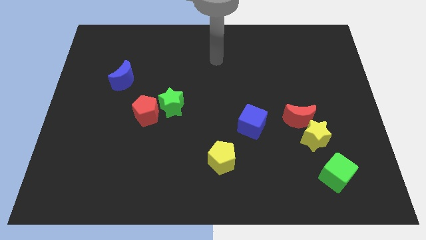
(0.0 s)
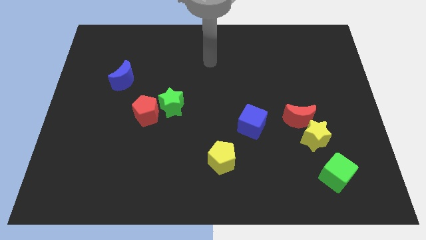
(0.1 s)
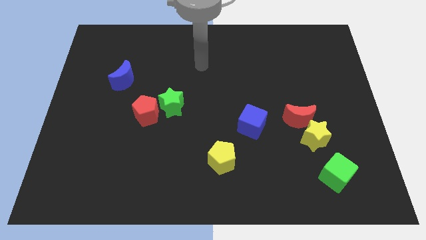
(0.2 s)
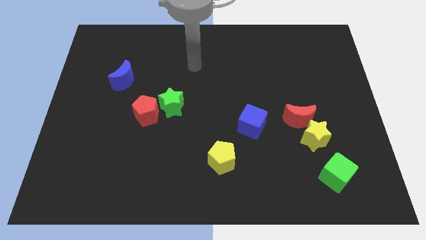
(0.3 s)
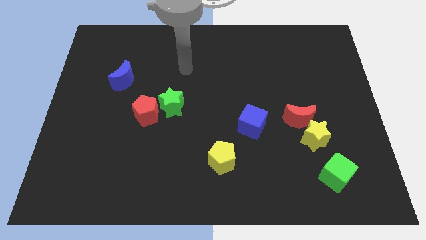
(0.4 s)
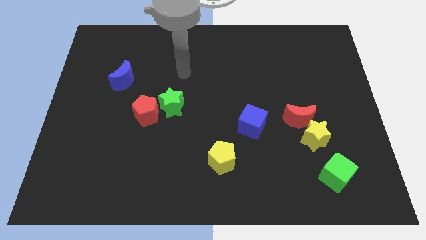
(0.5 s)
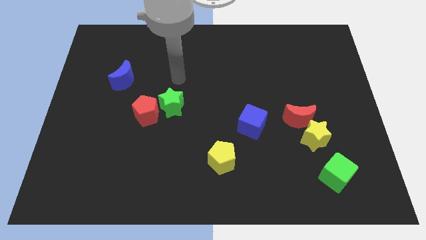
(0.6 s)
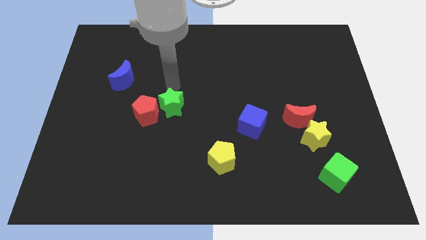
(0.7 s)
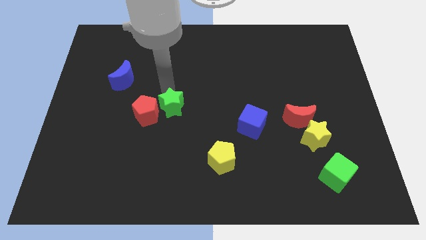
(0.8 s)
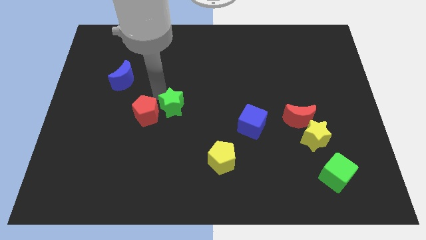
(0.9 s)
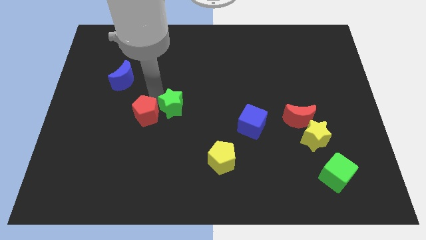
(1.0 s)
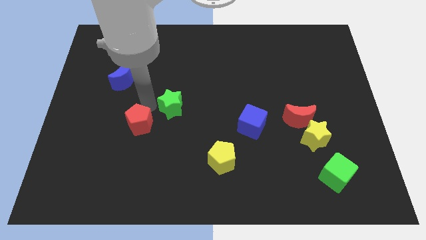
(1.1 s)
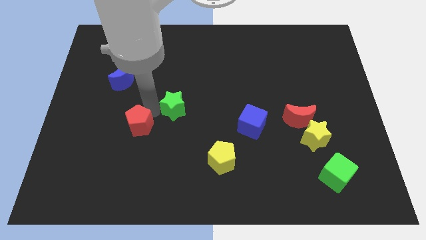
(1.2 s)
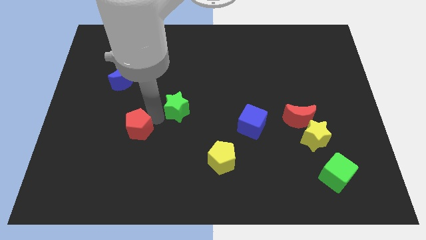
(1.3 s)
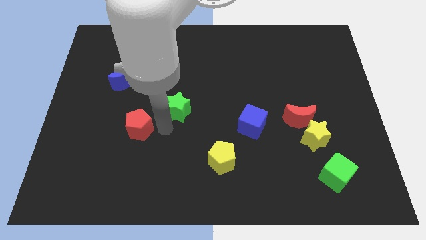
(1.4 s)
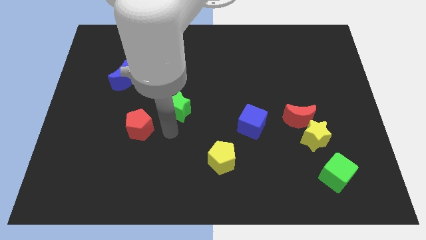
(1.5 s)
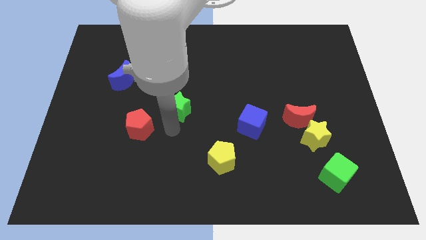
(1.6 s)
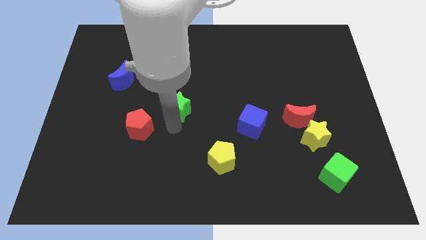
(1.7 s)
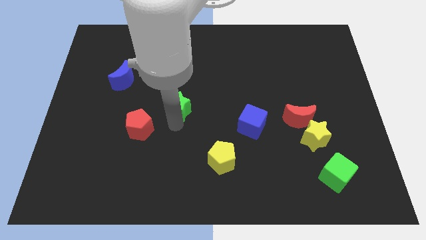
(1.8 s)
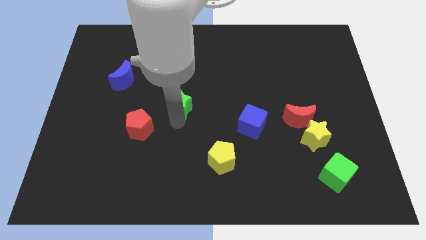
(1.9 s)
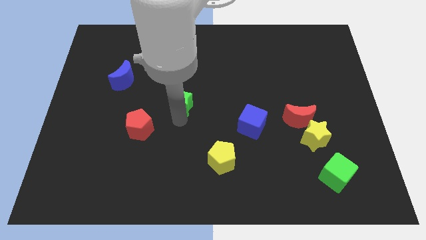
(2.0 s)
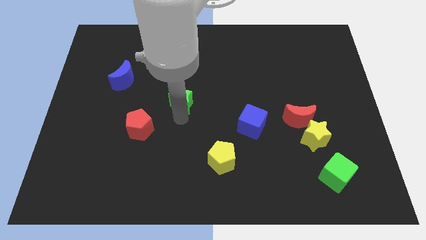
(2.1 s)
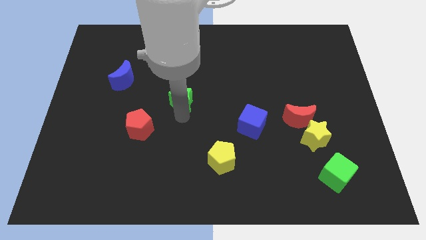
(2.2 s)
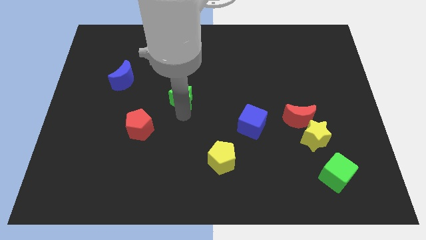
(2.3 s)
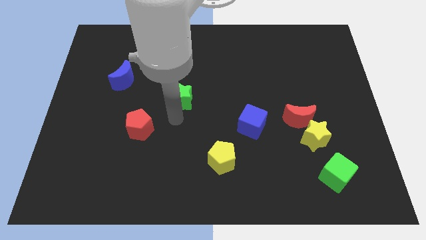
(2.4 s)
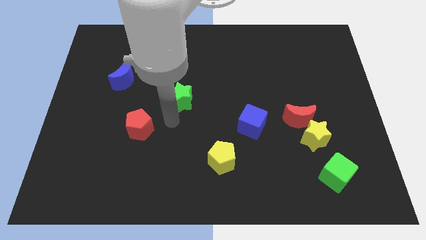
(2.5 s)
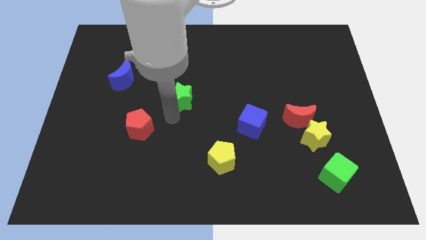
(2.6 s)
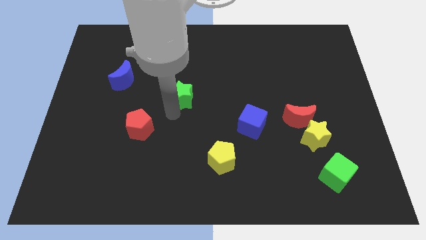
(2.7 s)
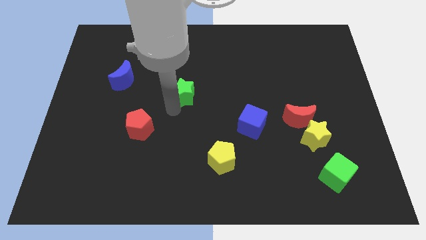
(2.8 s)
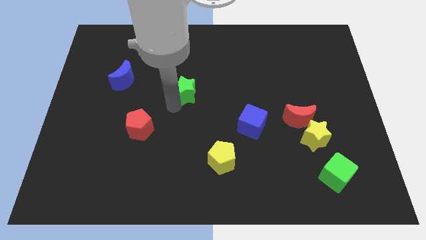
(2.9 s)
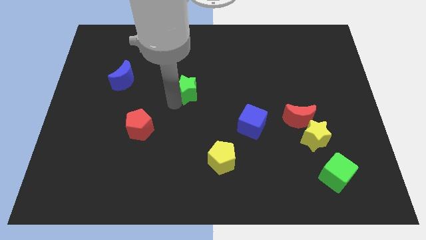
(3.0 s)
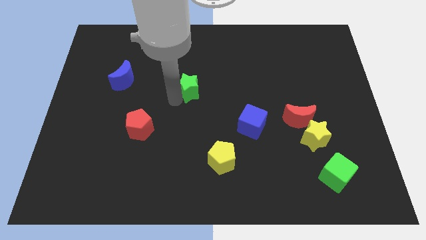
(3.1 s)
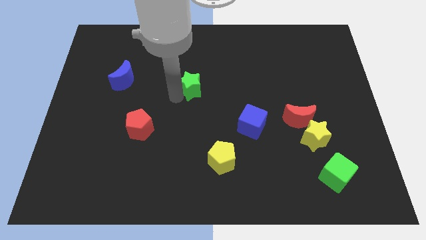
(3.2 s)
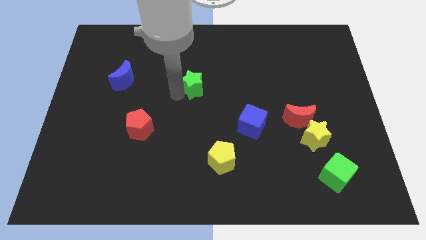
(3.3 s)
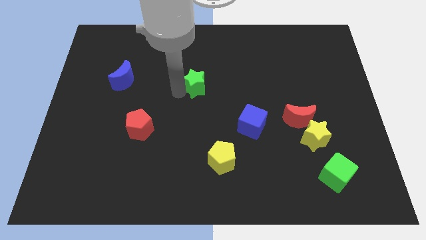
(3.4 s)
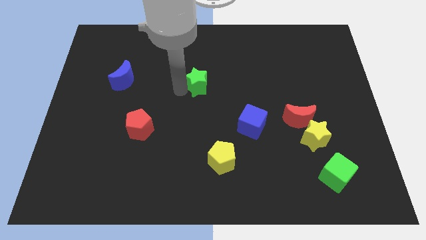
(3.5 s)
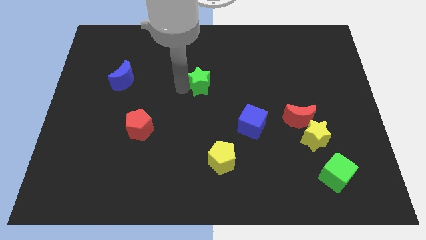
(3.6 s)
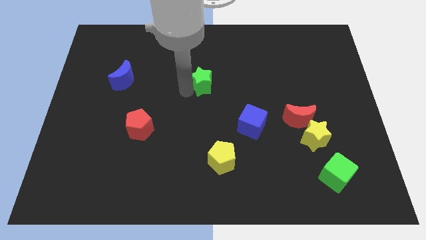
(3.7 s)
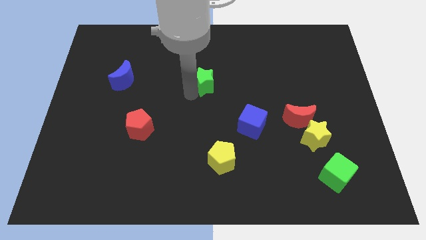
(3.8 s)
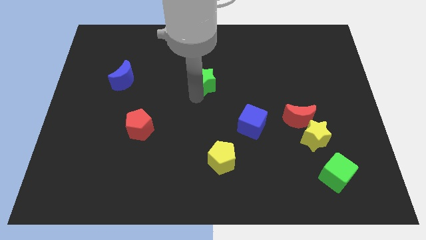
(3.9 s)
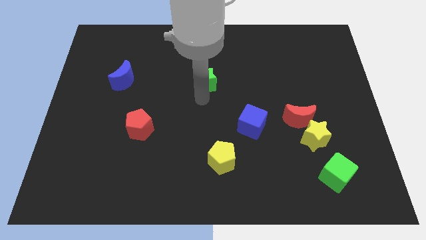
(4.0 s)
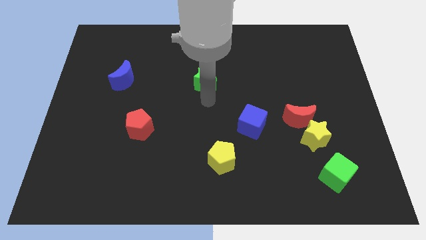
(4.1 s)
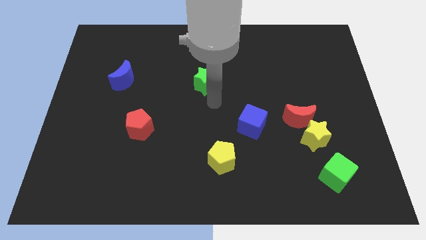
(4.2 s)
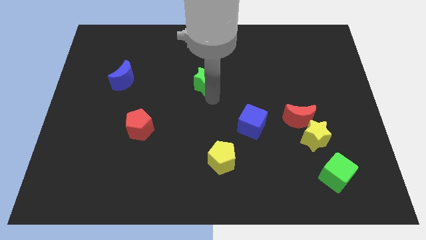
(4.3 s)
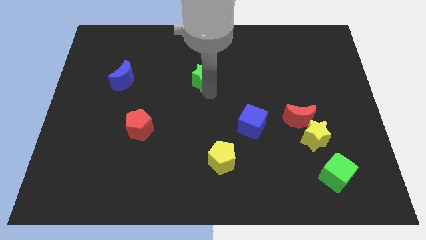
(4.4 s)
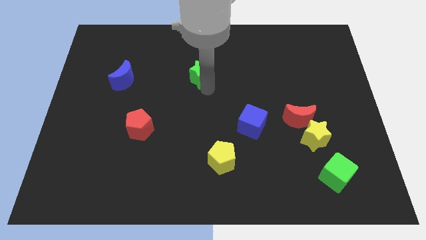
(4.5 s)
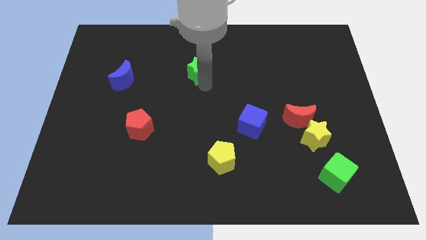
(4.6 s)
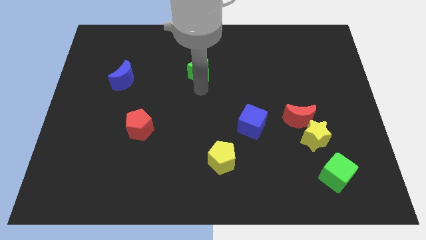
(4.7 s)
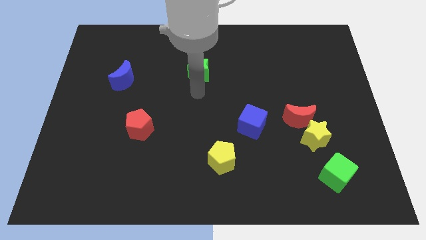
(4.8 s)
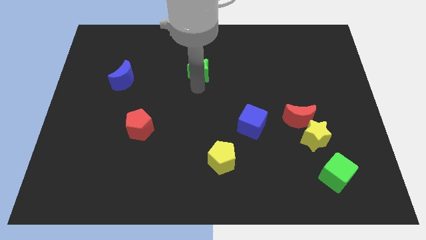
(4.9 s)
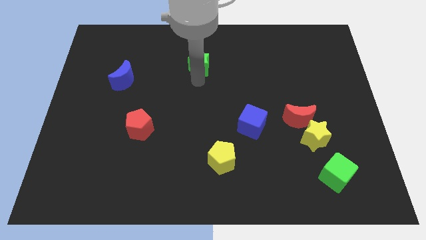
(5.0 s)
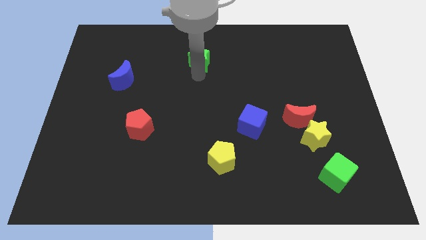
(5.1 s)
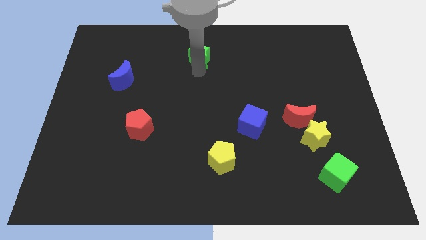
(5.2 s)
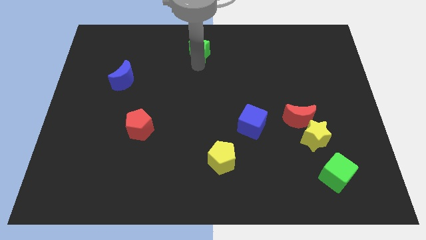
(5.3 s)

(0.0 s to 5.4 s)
move the green star to the top

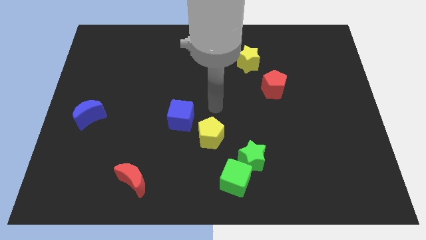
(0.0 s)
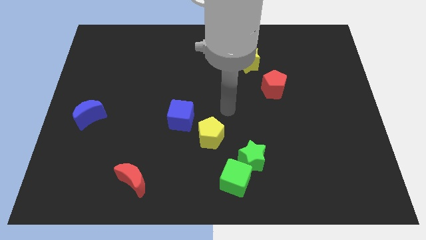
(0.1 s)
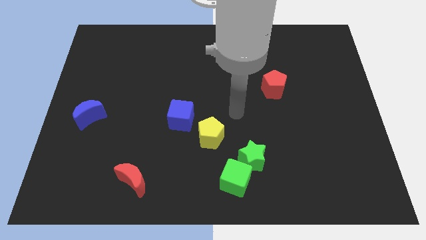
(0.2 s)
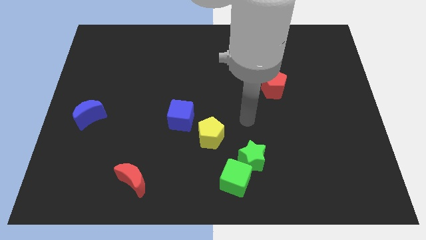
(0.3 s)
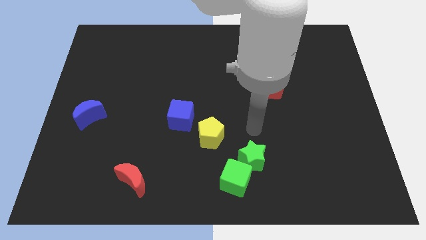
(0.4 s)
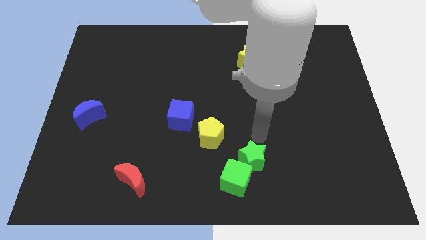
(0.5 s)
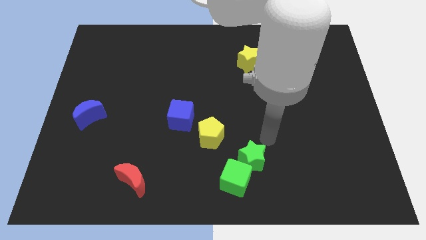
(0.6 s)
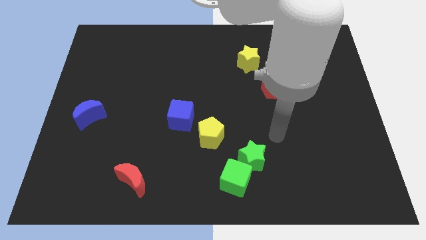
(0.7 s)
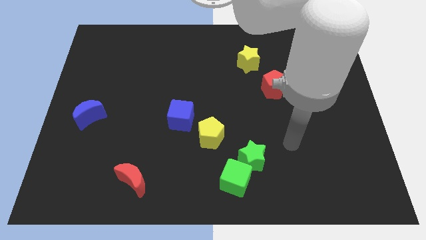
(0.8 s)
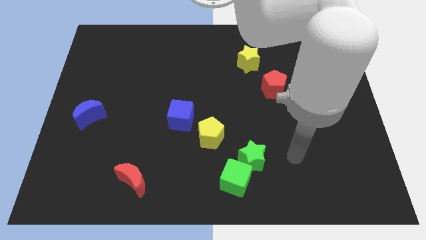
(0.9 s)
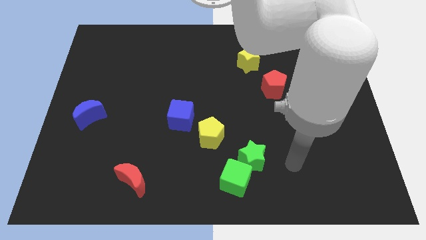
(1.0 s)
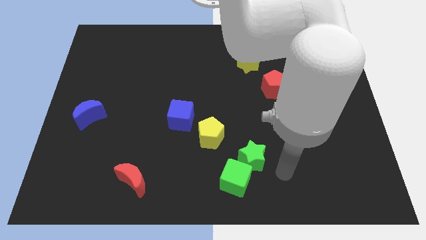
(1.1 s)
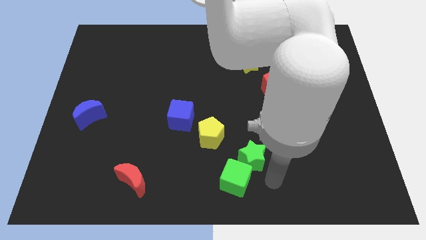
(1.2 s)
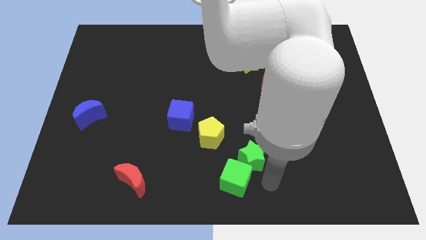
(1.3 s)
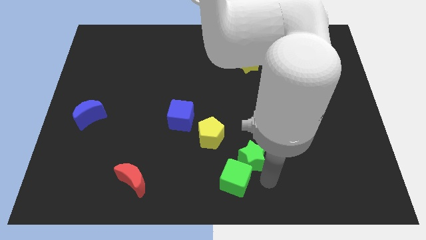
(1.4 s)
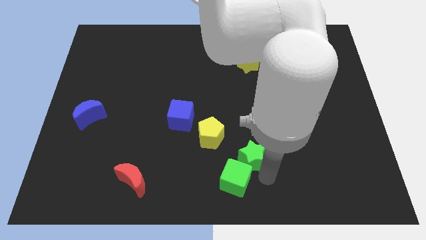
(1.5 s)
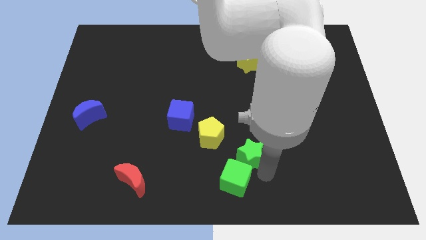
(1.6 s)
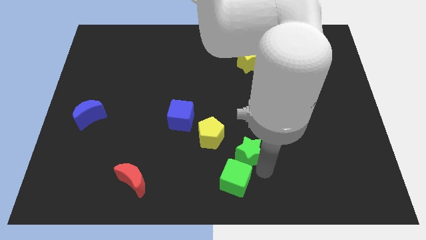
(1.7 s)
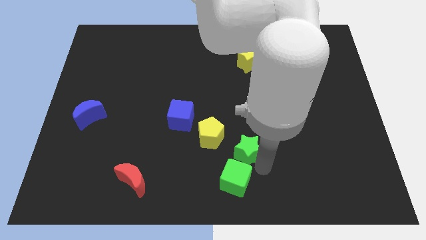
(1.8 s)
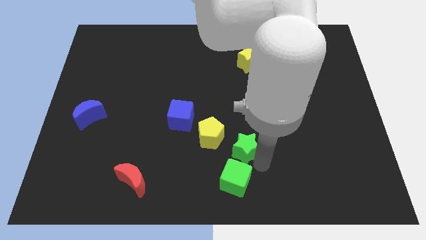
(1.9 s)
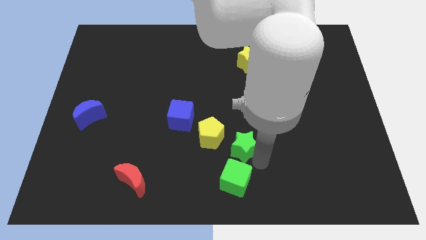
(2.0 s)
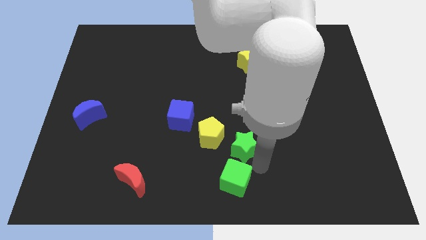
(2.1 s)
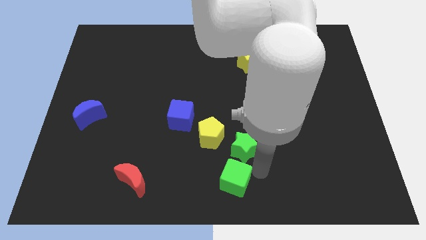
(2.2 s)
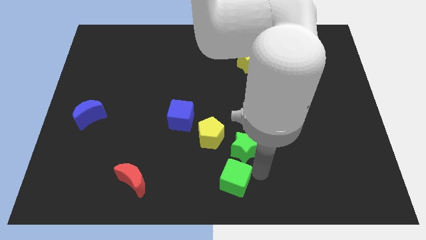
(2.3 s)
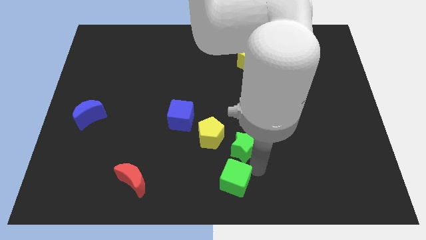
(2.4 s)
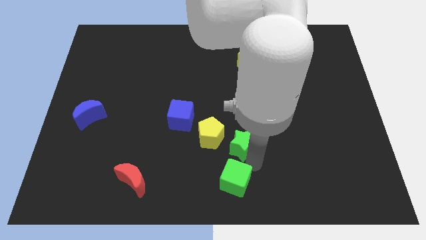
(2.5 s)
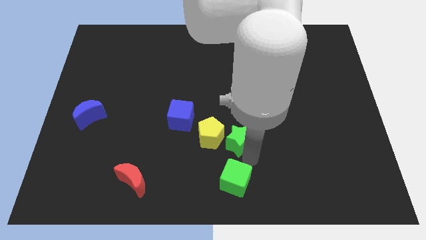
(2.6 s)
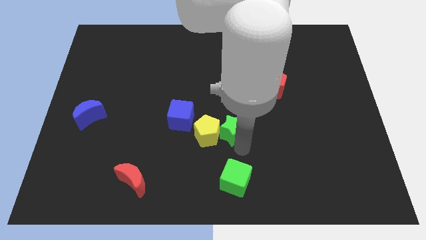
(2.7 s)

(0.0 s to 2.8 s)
slide the green star to the center of the board
